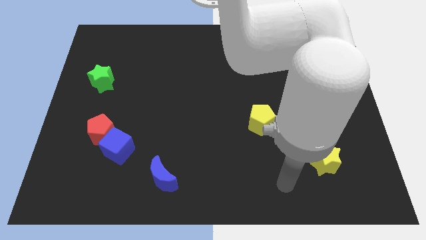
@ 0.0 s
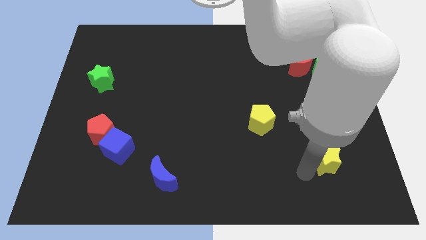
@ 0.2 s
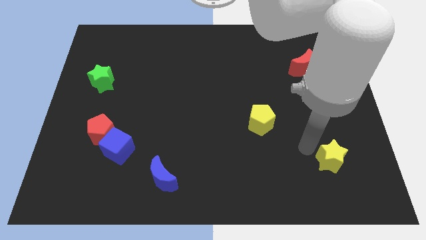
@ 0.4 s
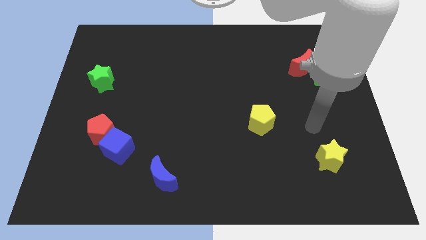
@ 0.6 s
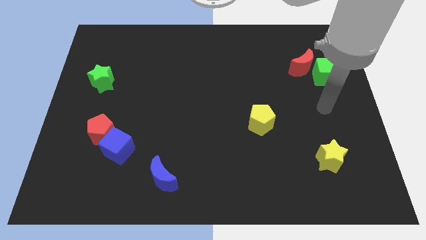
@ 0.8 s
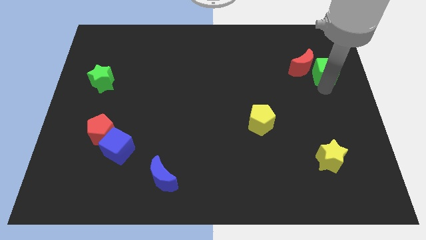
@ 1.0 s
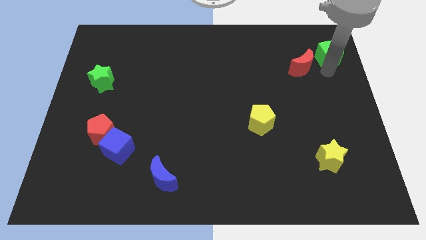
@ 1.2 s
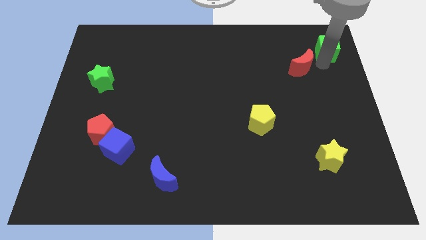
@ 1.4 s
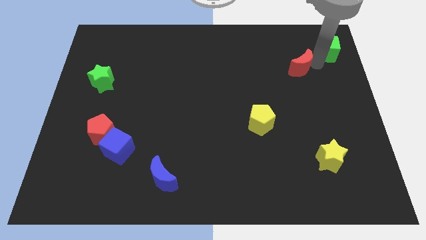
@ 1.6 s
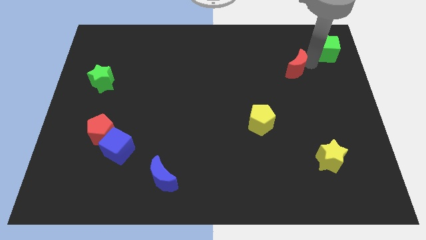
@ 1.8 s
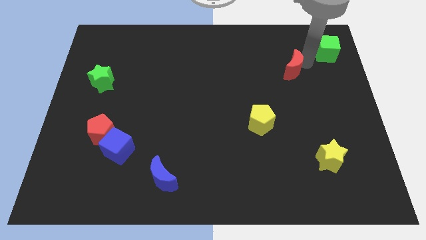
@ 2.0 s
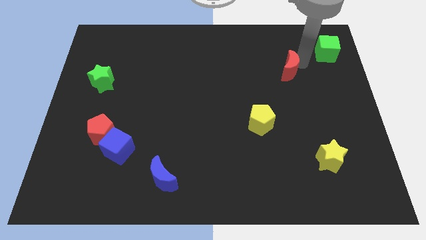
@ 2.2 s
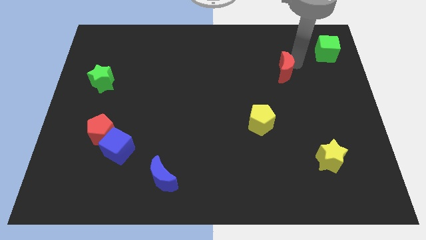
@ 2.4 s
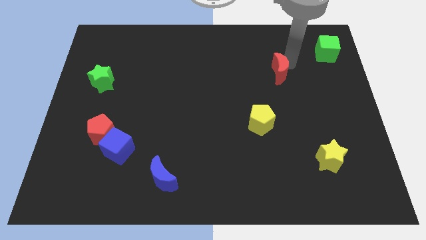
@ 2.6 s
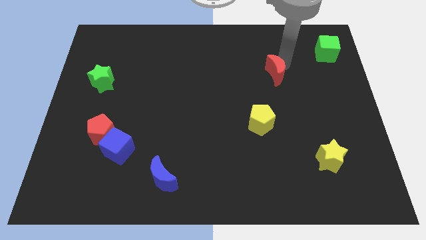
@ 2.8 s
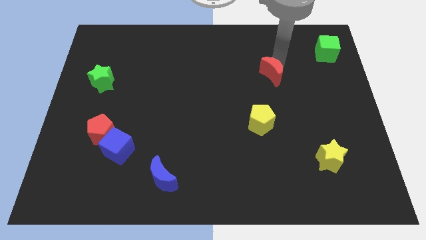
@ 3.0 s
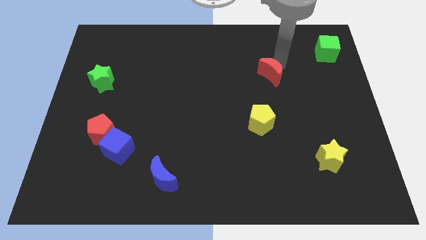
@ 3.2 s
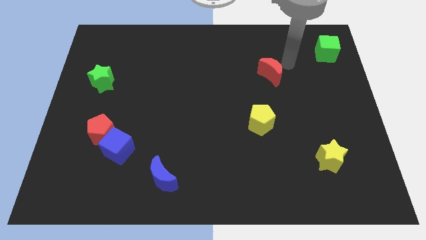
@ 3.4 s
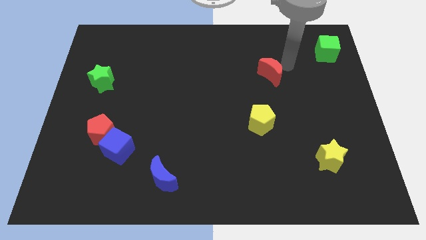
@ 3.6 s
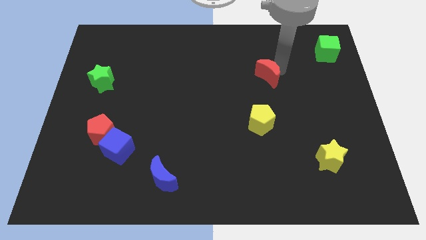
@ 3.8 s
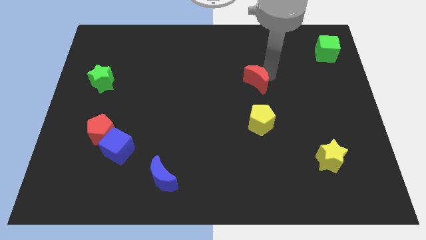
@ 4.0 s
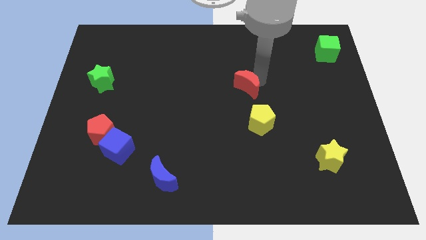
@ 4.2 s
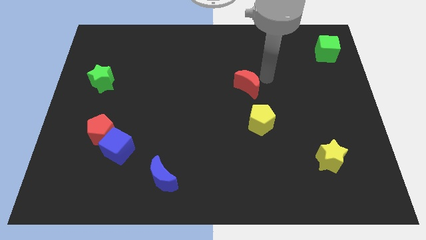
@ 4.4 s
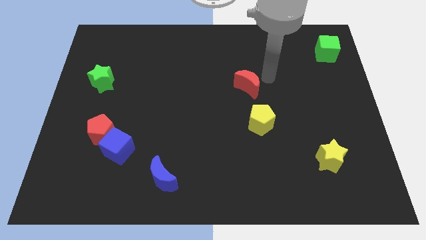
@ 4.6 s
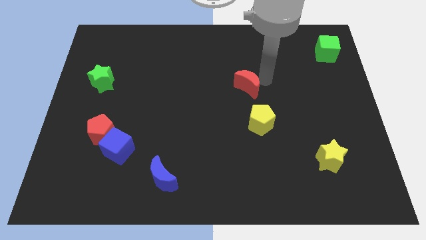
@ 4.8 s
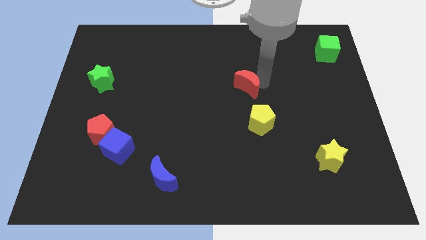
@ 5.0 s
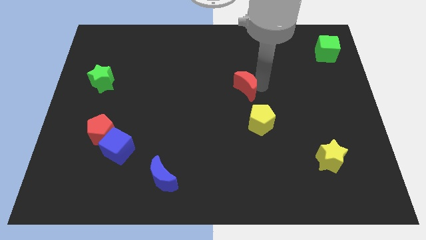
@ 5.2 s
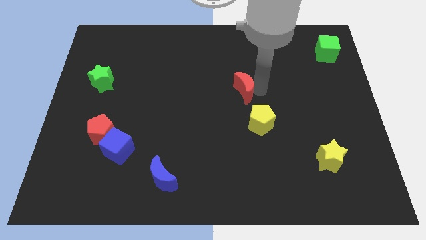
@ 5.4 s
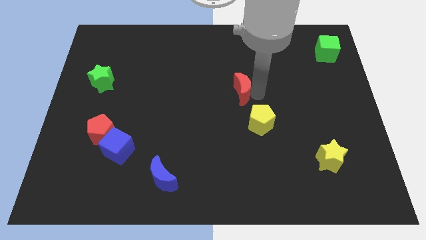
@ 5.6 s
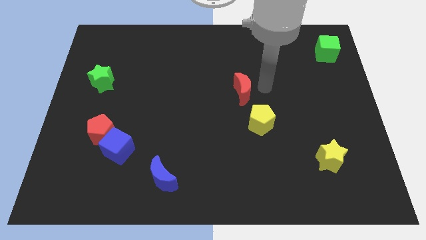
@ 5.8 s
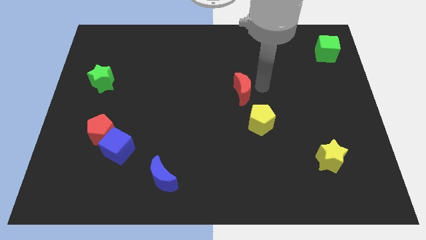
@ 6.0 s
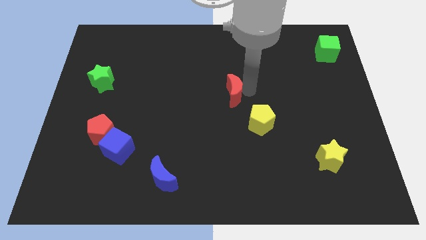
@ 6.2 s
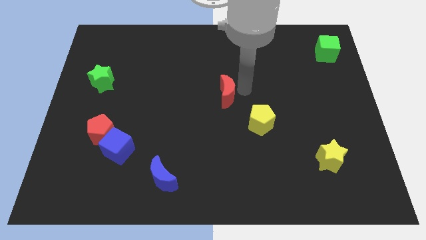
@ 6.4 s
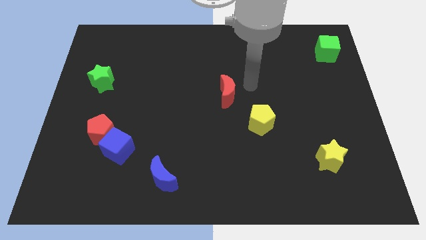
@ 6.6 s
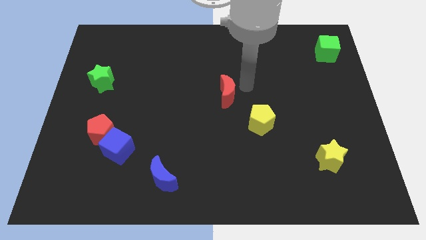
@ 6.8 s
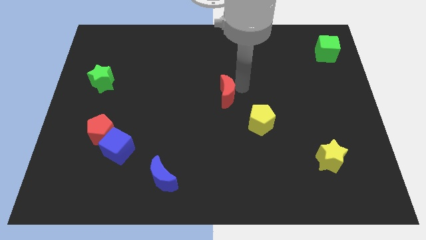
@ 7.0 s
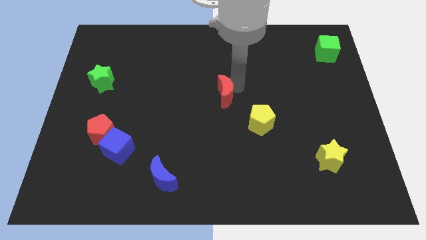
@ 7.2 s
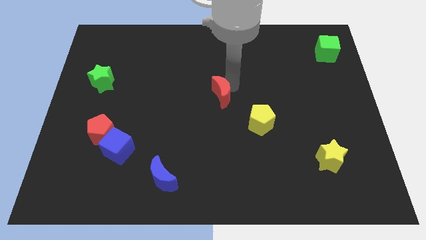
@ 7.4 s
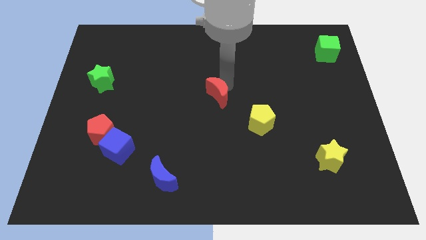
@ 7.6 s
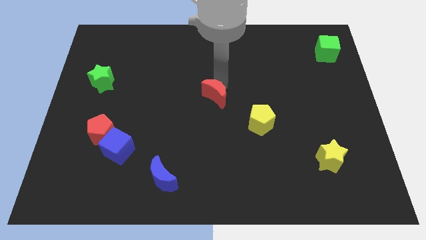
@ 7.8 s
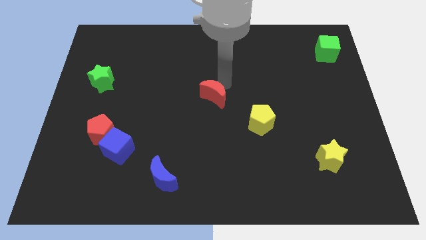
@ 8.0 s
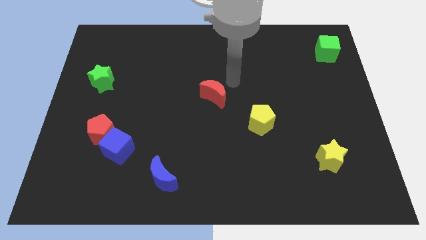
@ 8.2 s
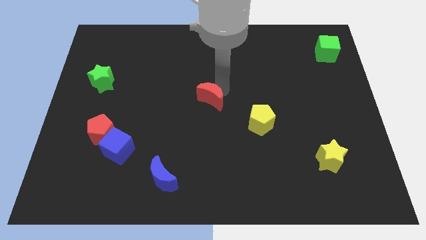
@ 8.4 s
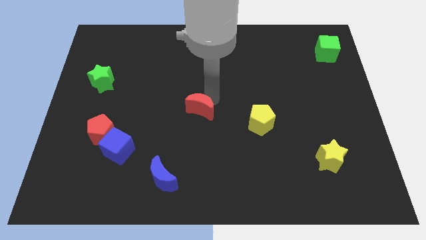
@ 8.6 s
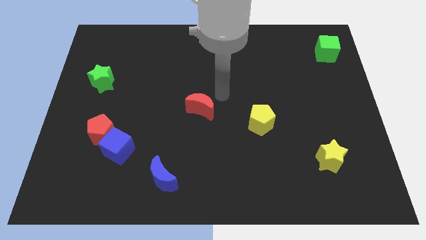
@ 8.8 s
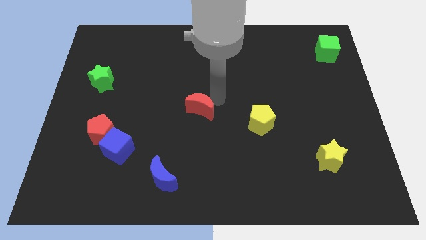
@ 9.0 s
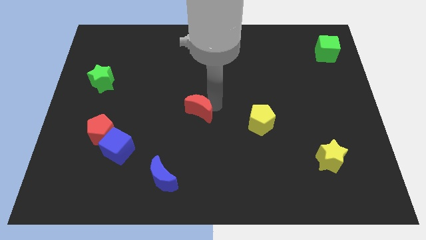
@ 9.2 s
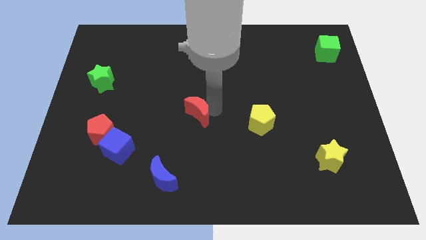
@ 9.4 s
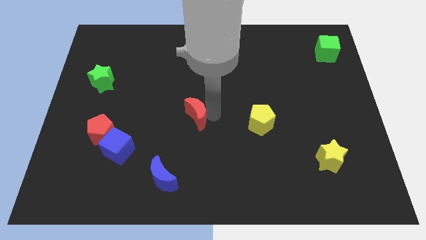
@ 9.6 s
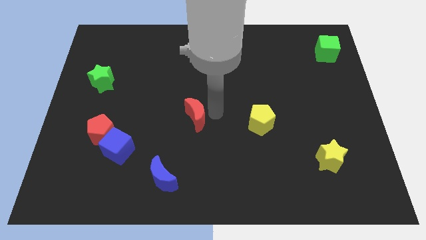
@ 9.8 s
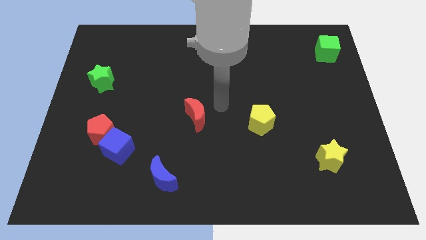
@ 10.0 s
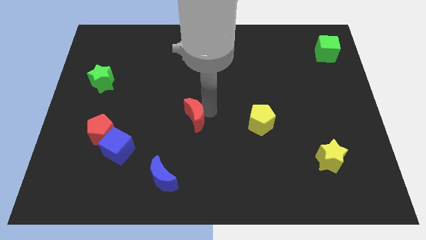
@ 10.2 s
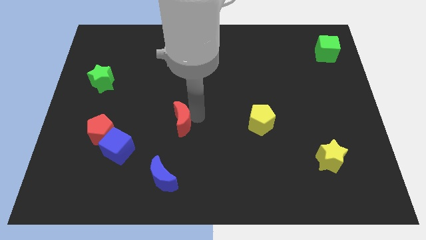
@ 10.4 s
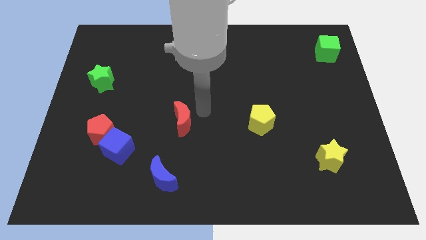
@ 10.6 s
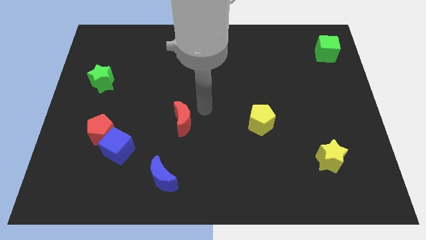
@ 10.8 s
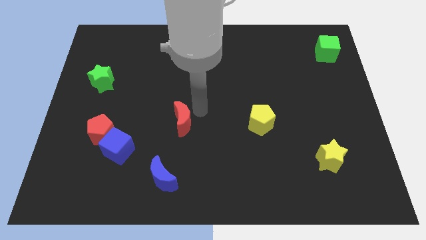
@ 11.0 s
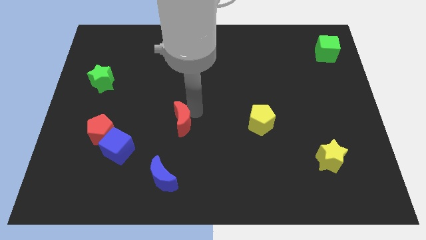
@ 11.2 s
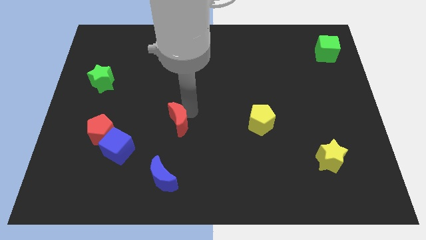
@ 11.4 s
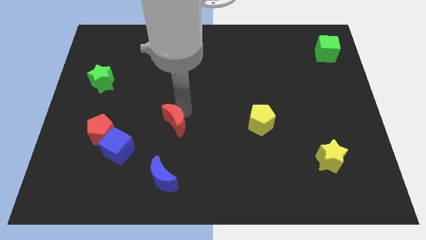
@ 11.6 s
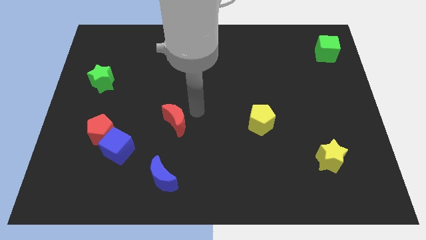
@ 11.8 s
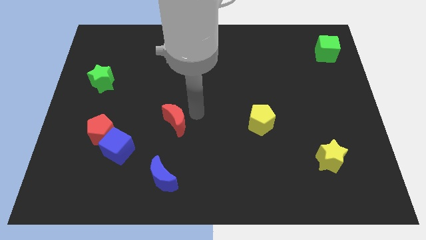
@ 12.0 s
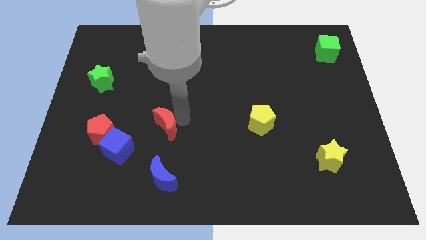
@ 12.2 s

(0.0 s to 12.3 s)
slide the red moon to the right side of the red pentagon

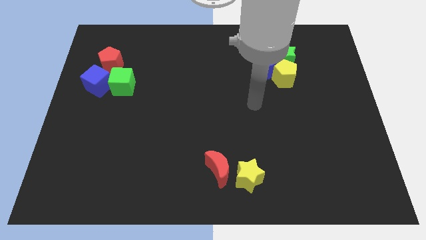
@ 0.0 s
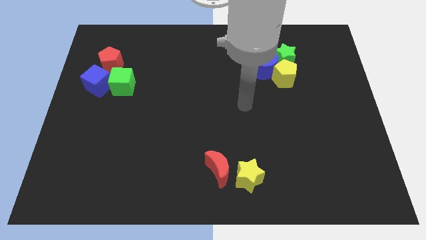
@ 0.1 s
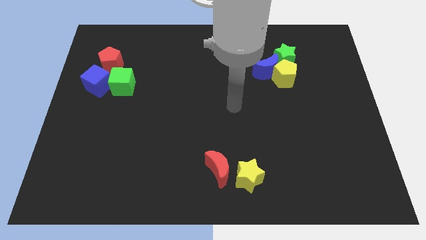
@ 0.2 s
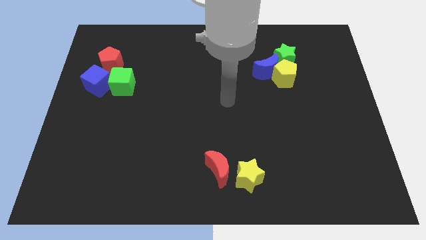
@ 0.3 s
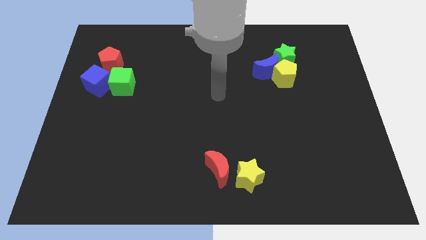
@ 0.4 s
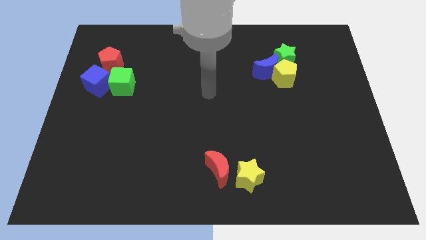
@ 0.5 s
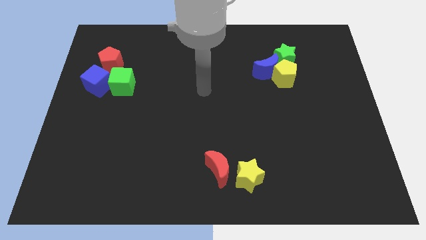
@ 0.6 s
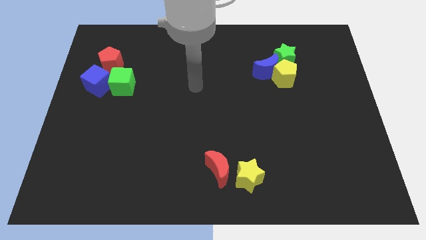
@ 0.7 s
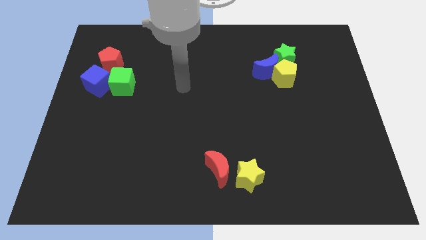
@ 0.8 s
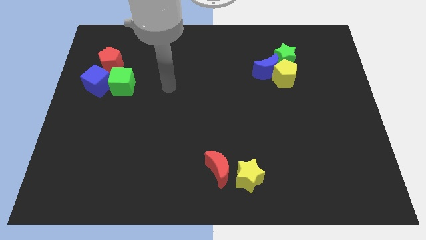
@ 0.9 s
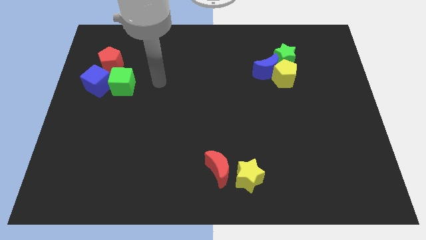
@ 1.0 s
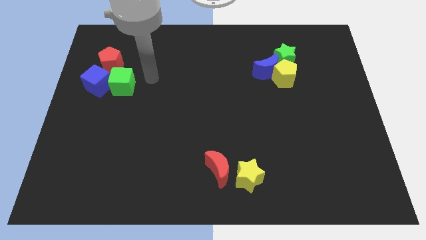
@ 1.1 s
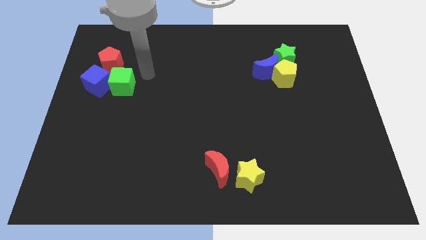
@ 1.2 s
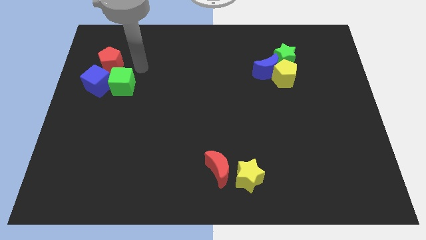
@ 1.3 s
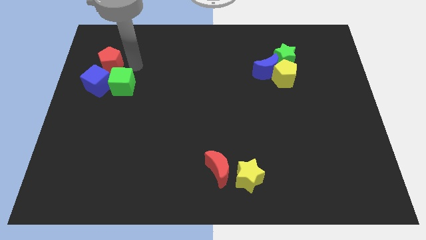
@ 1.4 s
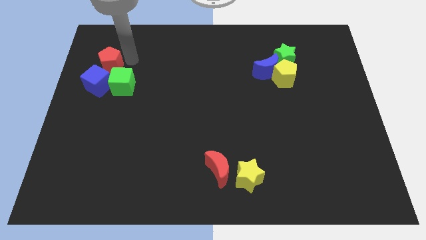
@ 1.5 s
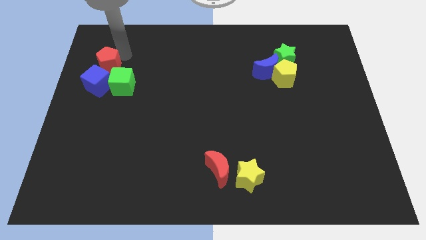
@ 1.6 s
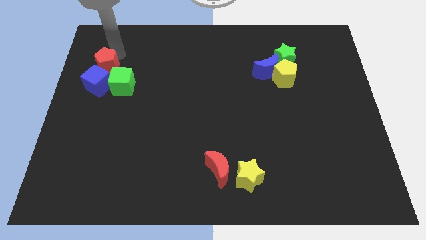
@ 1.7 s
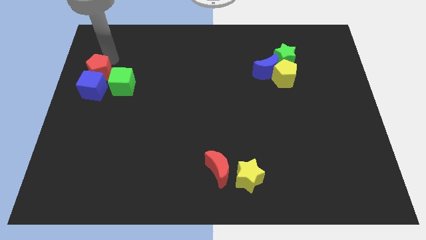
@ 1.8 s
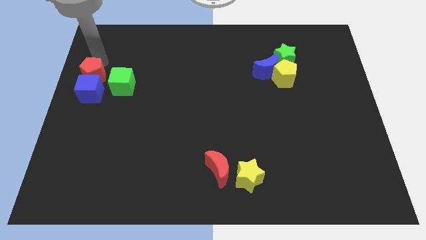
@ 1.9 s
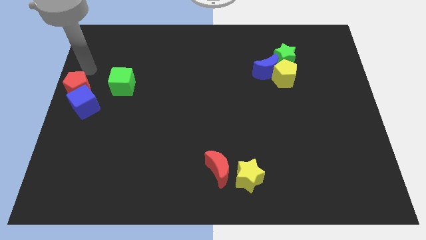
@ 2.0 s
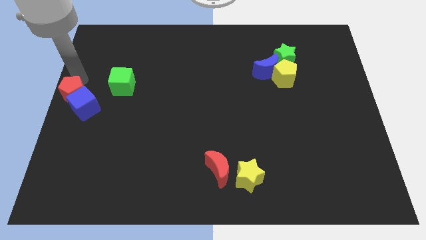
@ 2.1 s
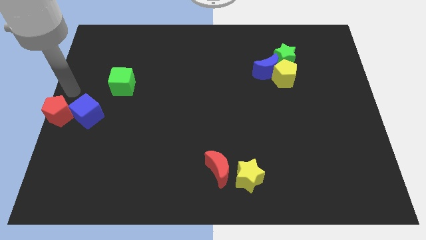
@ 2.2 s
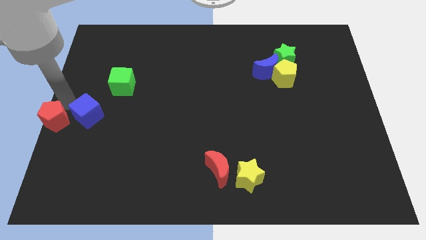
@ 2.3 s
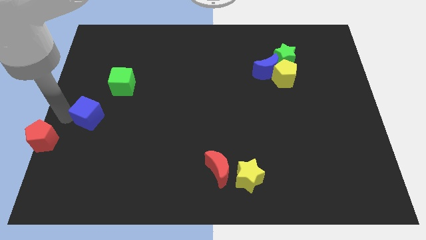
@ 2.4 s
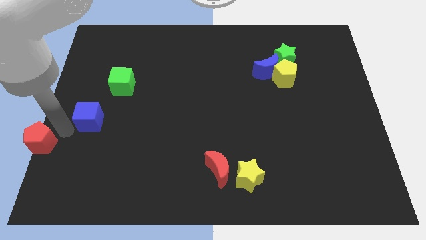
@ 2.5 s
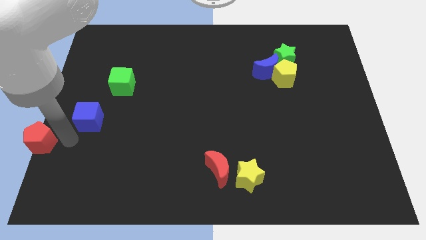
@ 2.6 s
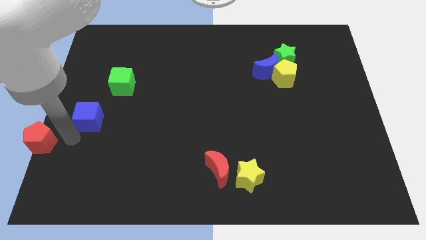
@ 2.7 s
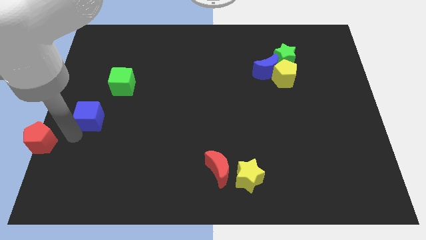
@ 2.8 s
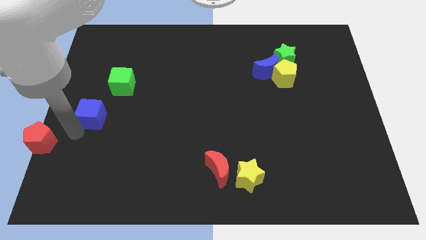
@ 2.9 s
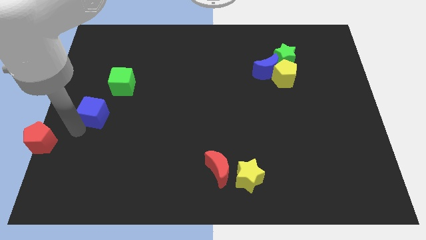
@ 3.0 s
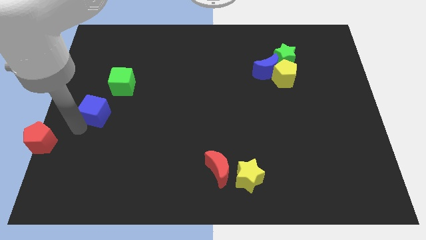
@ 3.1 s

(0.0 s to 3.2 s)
push the blue cube to the bottom side of the green cube
